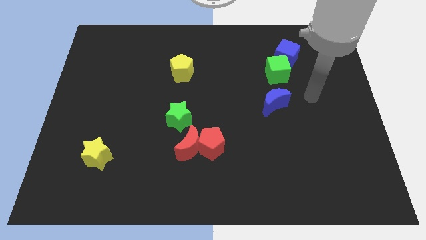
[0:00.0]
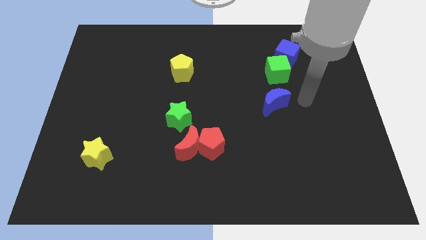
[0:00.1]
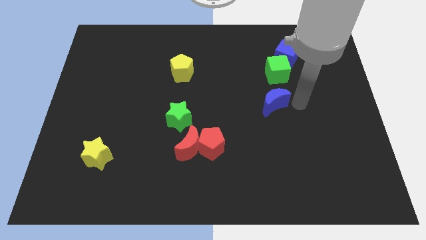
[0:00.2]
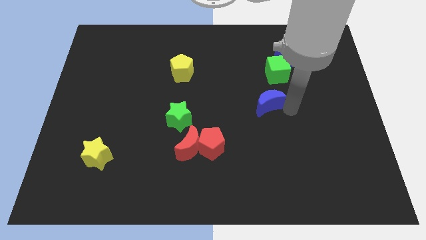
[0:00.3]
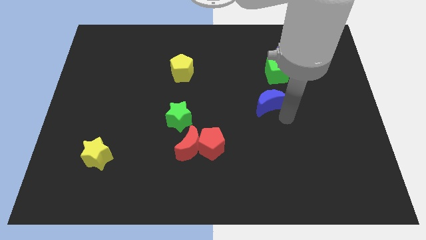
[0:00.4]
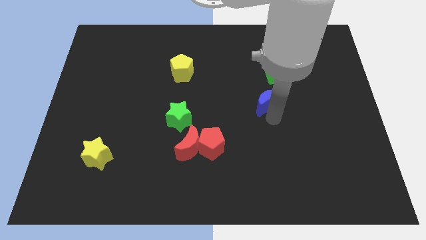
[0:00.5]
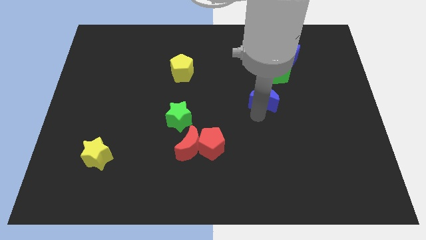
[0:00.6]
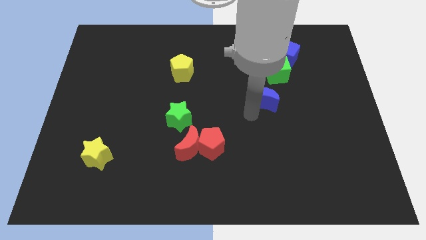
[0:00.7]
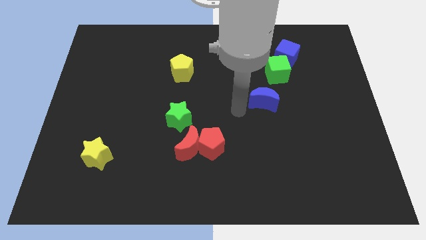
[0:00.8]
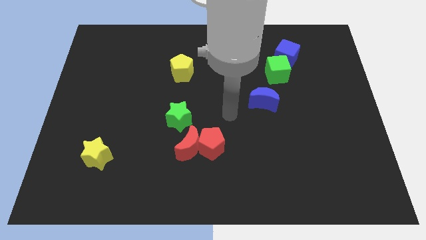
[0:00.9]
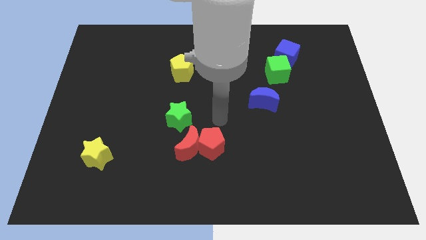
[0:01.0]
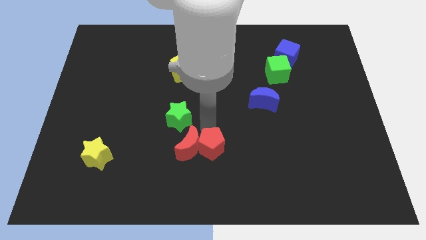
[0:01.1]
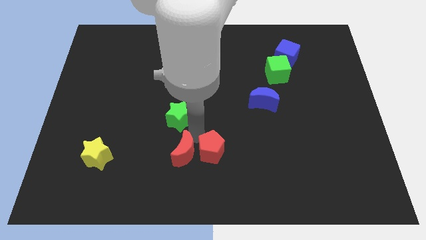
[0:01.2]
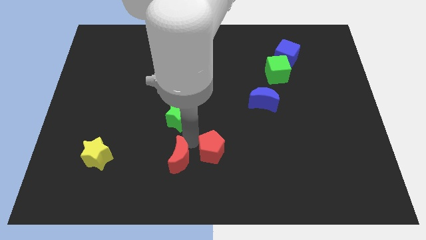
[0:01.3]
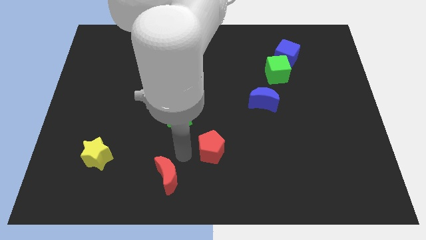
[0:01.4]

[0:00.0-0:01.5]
move the red pentagon away from the red moon

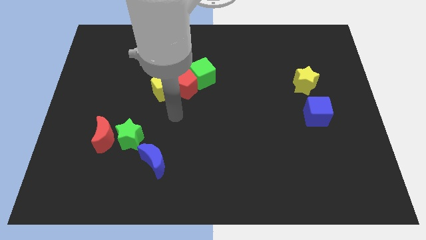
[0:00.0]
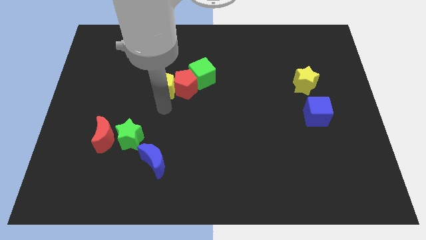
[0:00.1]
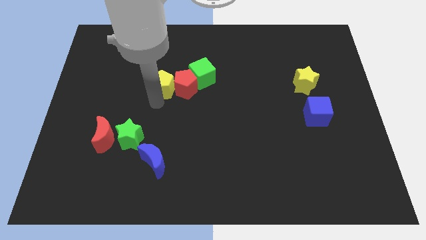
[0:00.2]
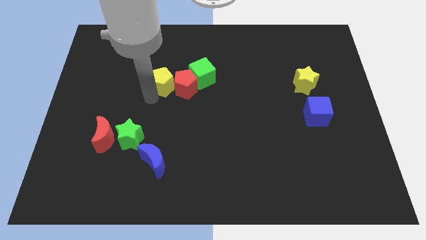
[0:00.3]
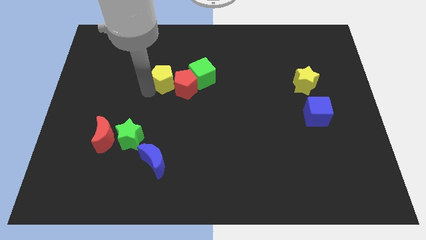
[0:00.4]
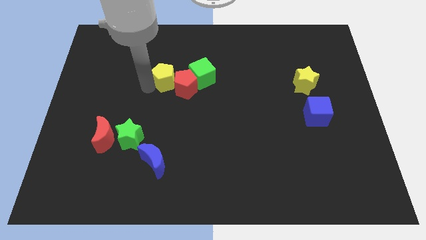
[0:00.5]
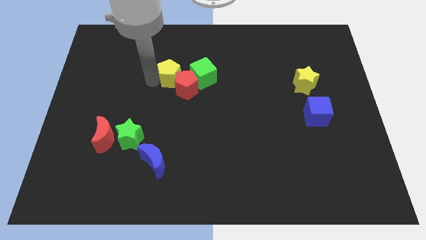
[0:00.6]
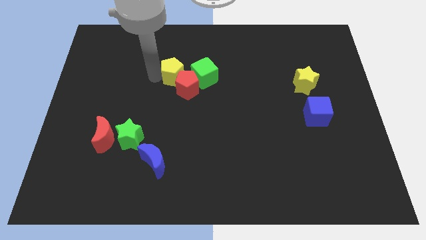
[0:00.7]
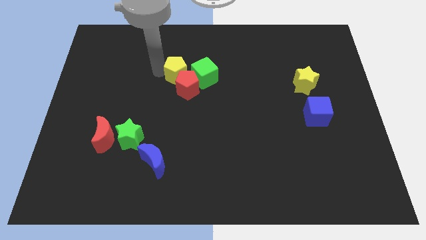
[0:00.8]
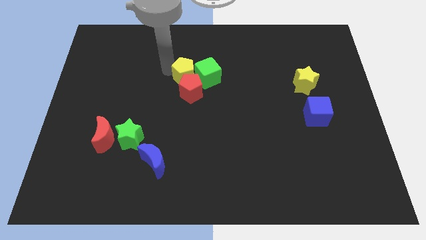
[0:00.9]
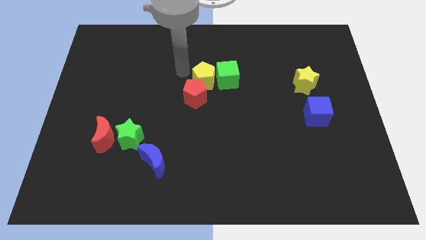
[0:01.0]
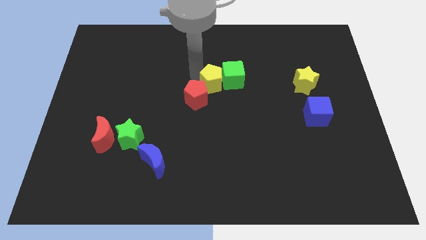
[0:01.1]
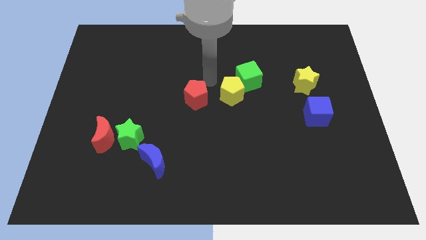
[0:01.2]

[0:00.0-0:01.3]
move the red pentagon away from the green cube and yellow pentagon

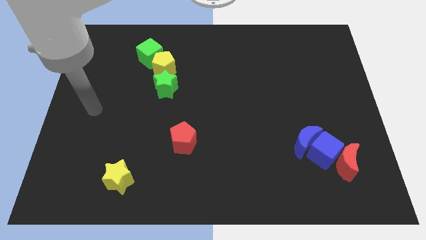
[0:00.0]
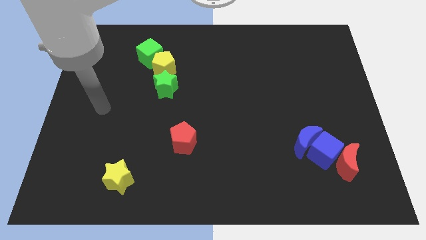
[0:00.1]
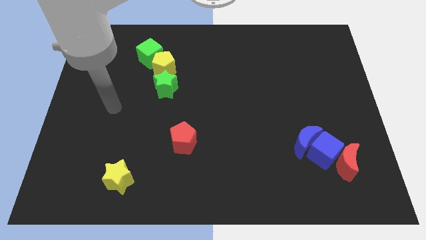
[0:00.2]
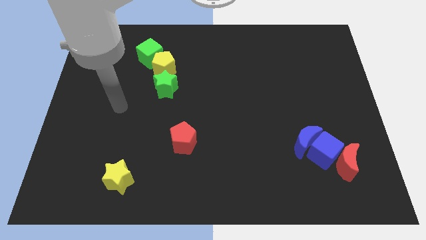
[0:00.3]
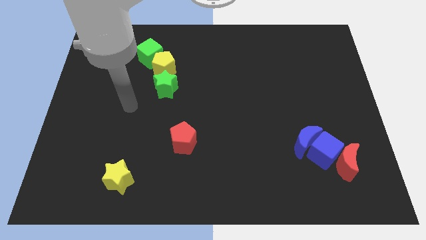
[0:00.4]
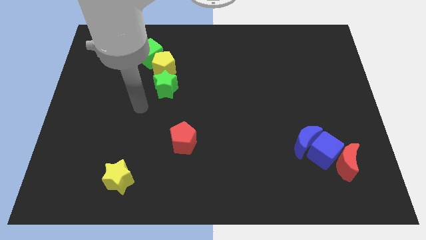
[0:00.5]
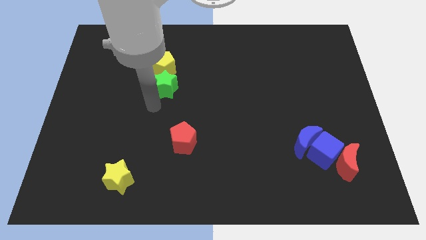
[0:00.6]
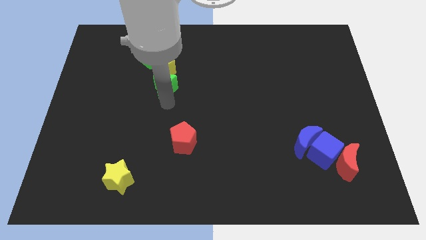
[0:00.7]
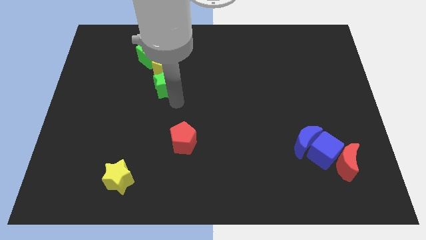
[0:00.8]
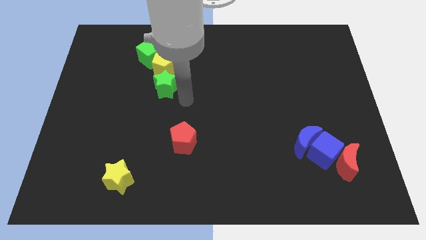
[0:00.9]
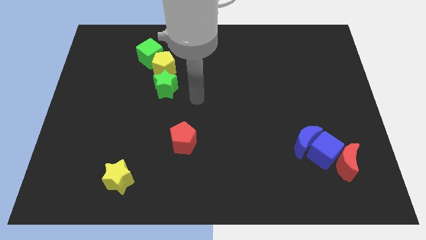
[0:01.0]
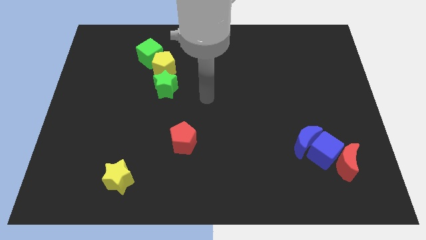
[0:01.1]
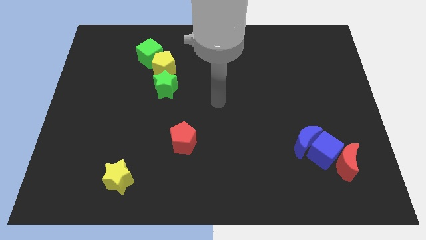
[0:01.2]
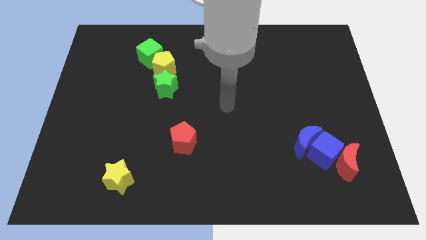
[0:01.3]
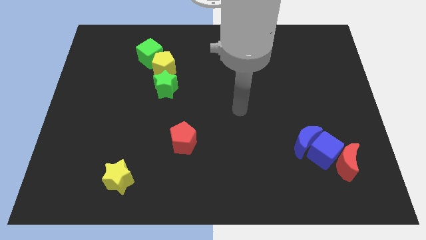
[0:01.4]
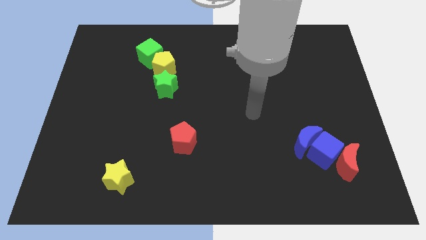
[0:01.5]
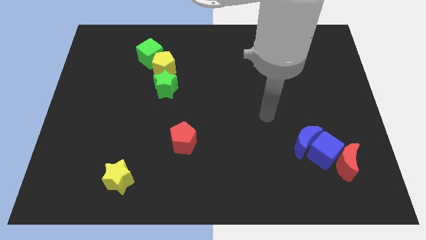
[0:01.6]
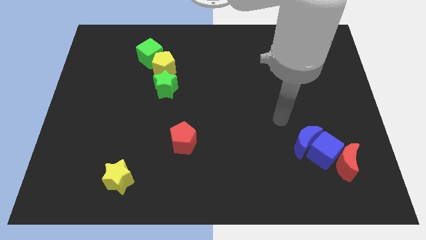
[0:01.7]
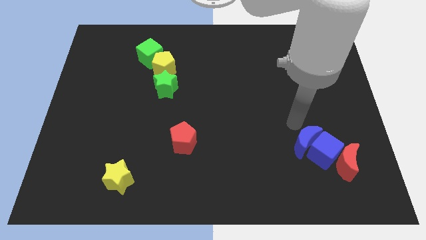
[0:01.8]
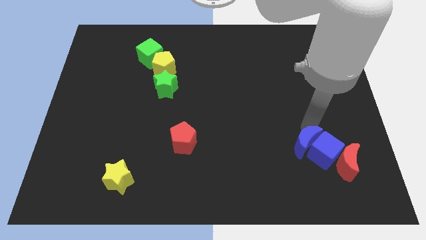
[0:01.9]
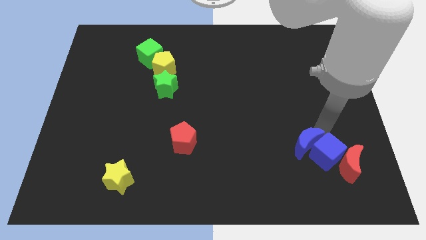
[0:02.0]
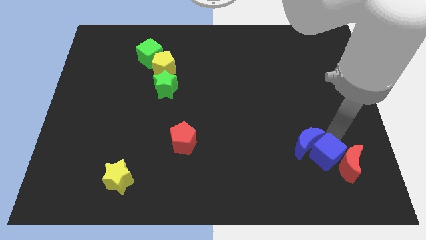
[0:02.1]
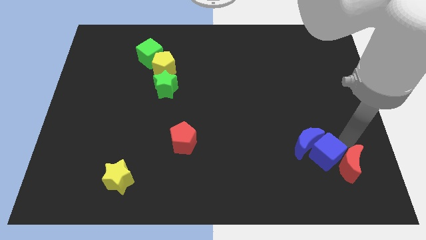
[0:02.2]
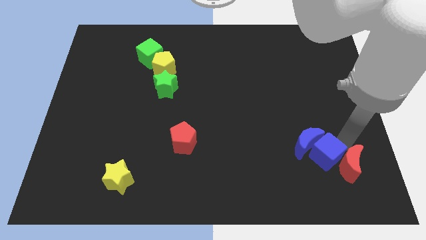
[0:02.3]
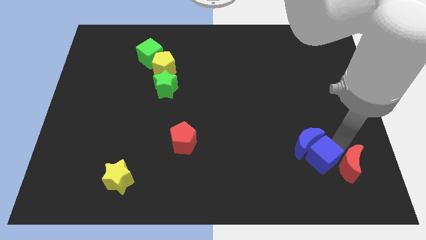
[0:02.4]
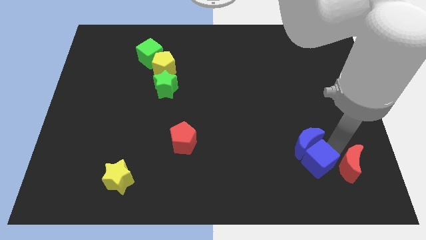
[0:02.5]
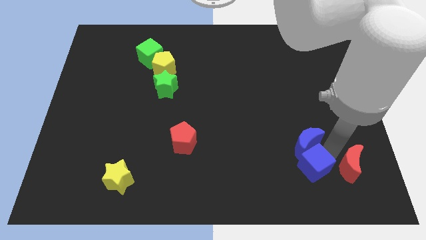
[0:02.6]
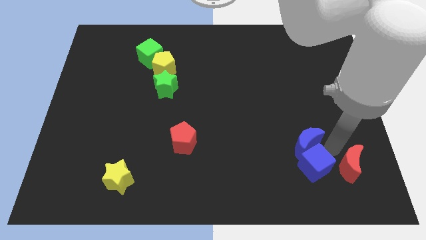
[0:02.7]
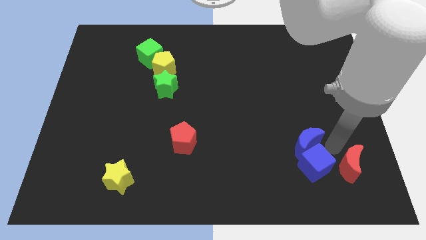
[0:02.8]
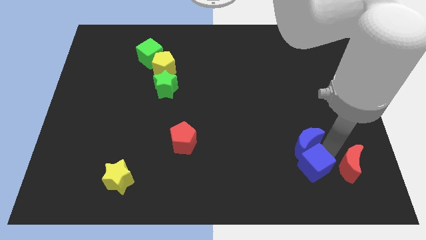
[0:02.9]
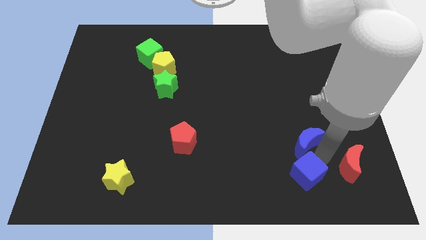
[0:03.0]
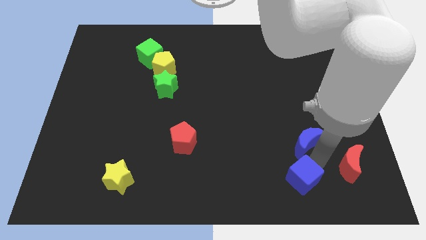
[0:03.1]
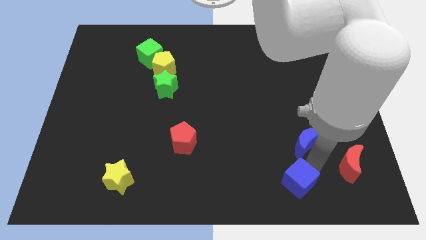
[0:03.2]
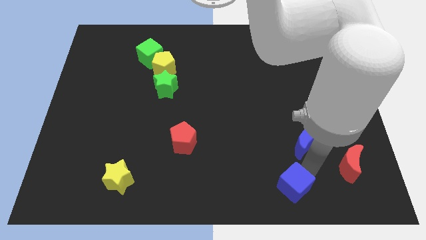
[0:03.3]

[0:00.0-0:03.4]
pull the blue cube apart from the blue moon and red moon

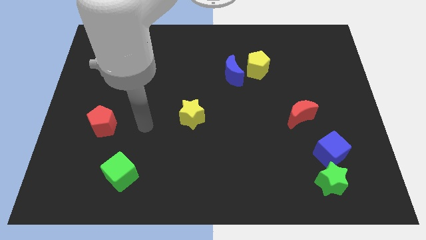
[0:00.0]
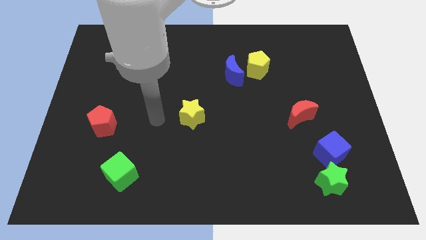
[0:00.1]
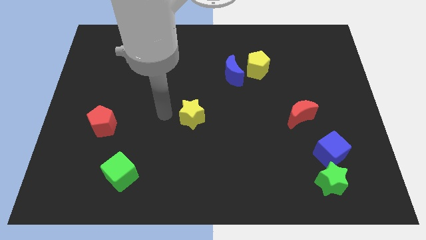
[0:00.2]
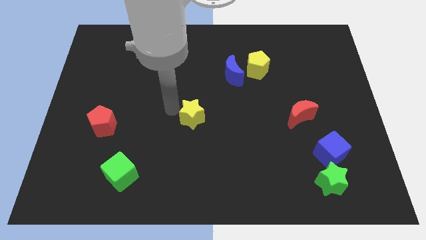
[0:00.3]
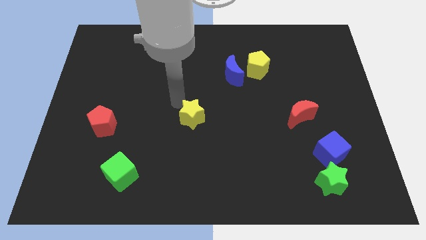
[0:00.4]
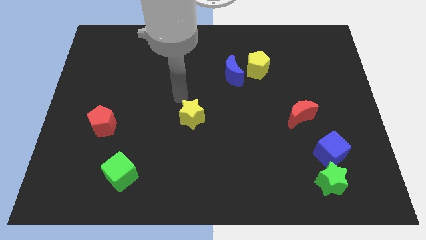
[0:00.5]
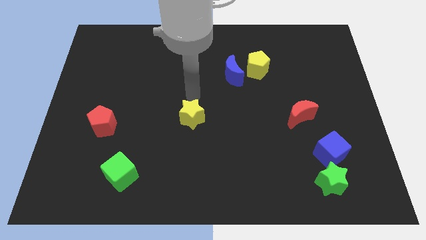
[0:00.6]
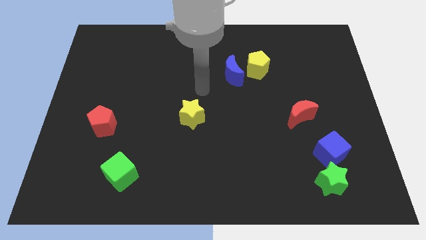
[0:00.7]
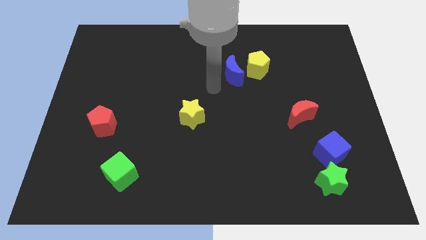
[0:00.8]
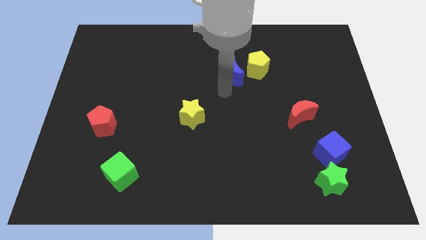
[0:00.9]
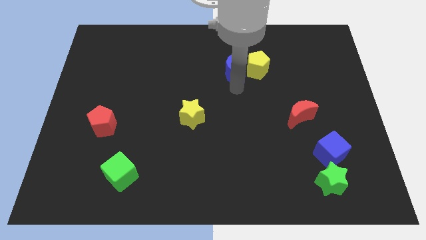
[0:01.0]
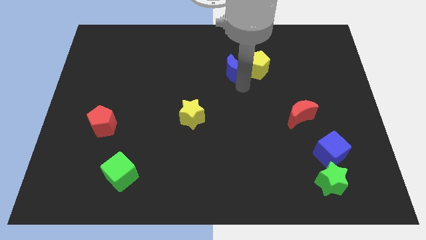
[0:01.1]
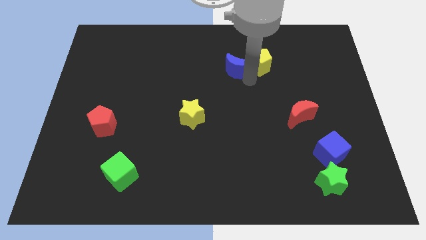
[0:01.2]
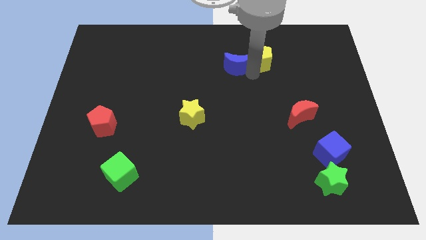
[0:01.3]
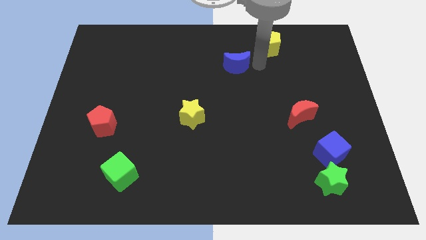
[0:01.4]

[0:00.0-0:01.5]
move the blue moon away from the yellow pentagon

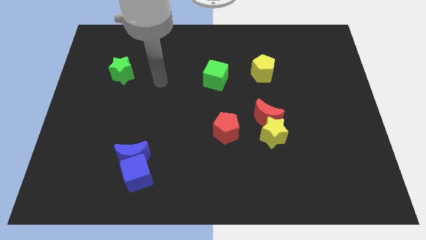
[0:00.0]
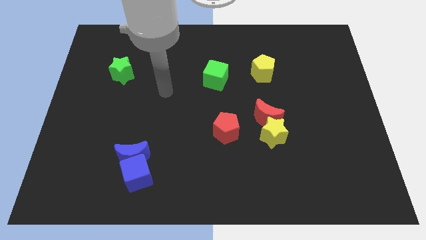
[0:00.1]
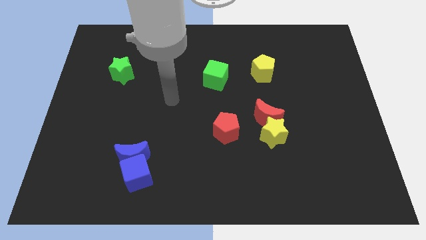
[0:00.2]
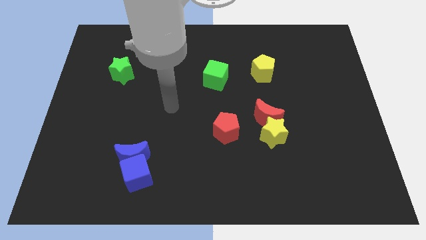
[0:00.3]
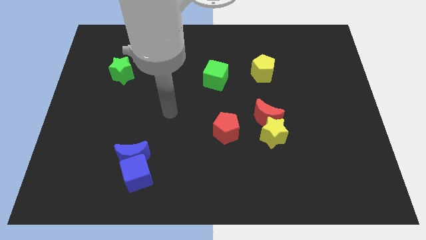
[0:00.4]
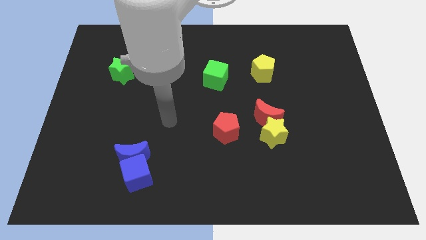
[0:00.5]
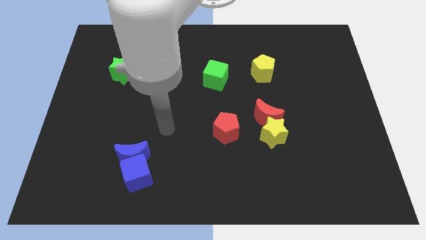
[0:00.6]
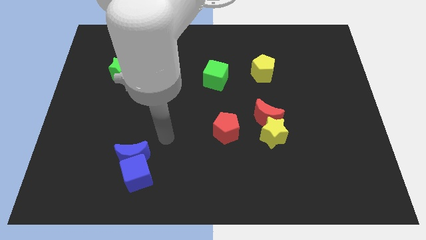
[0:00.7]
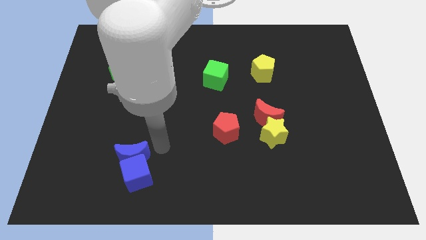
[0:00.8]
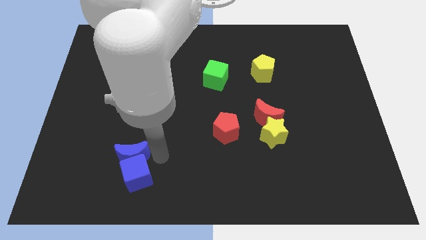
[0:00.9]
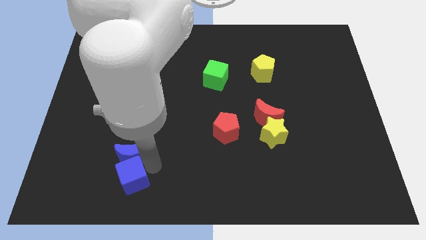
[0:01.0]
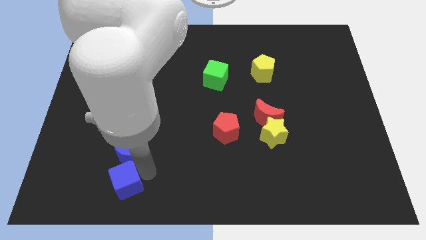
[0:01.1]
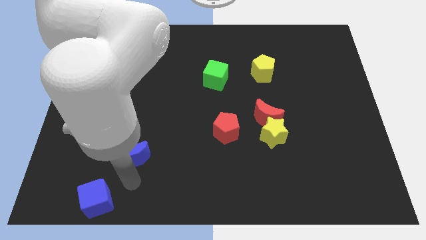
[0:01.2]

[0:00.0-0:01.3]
pull the blue moon apart from the blue cube

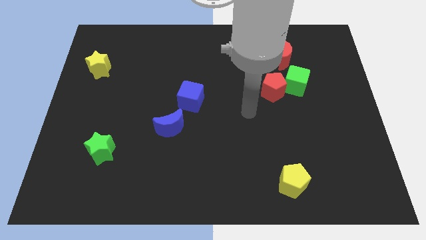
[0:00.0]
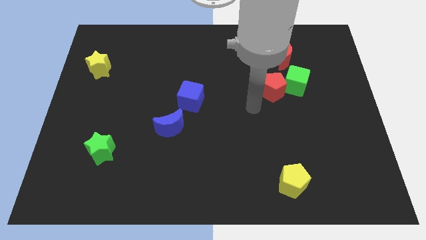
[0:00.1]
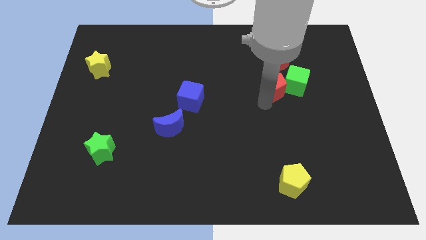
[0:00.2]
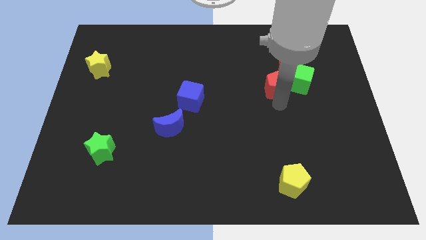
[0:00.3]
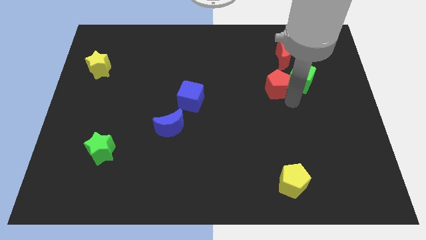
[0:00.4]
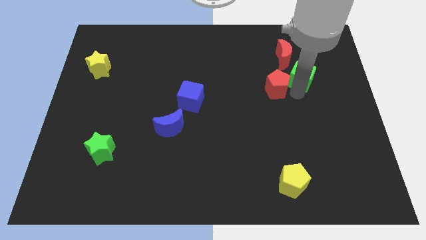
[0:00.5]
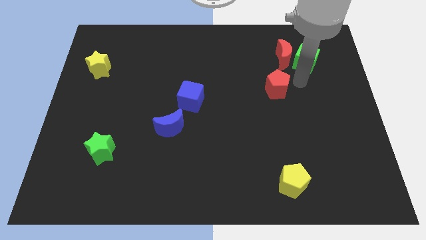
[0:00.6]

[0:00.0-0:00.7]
move the red pentagon away from the green cube
